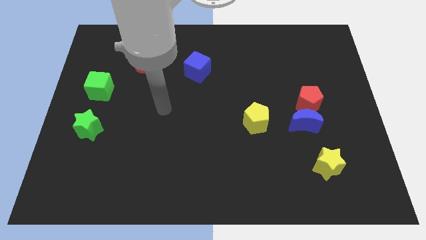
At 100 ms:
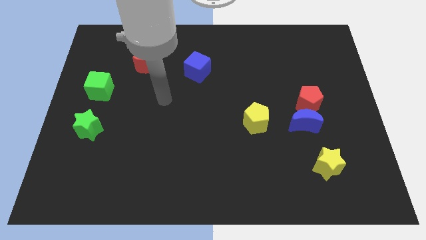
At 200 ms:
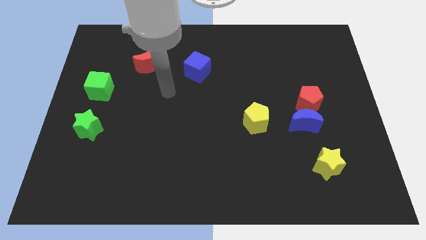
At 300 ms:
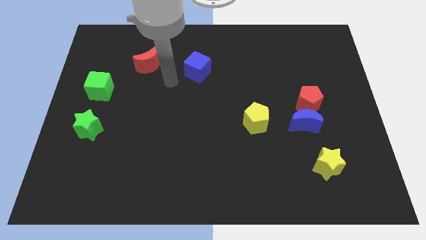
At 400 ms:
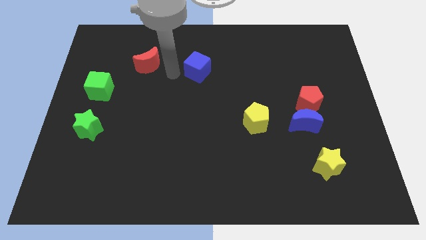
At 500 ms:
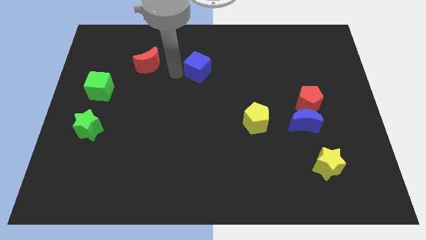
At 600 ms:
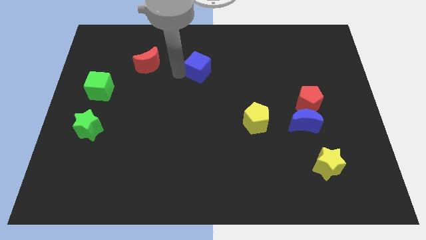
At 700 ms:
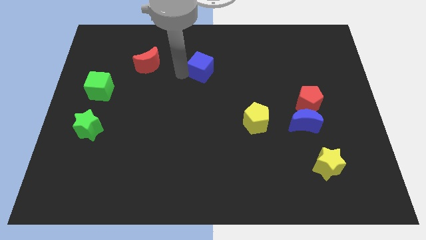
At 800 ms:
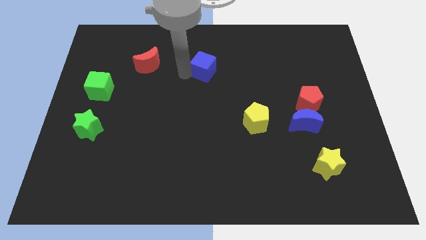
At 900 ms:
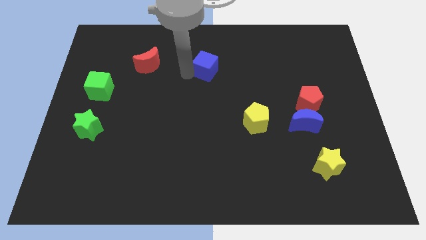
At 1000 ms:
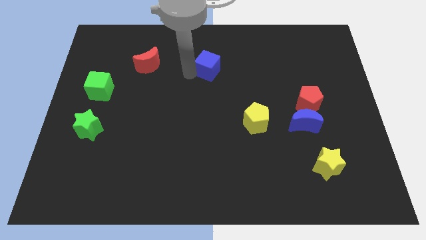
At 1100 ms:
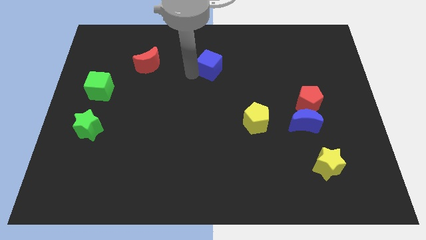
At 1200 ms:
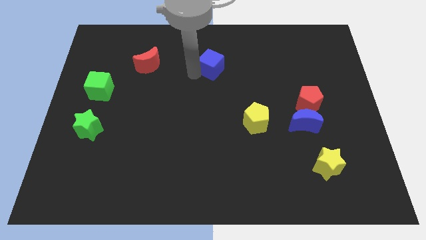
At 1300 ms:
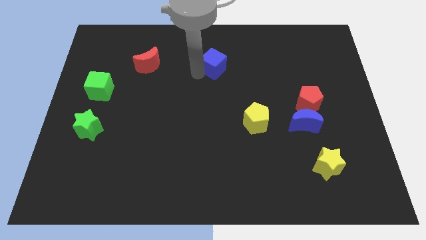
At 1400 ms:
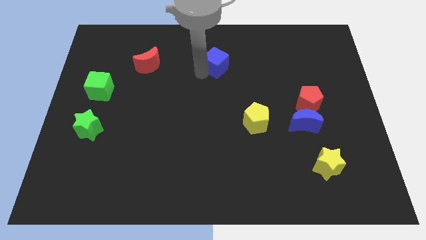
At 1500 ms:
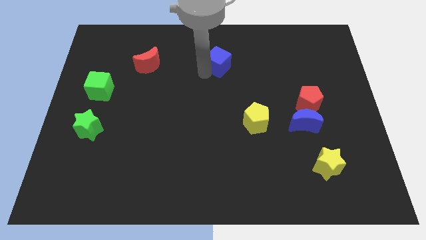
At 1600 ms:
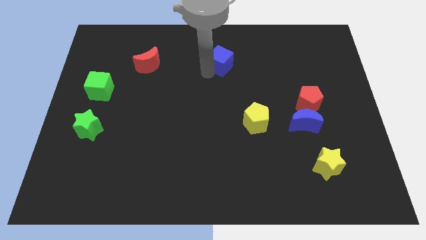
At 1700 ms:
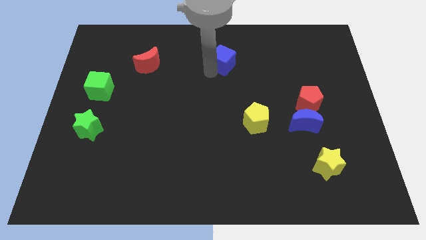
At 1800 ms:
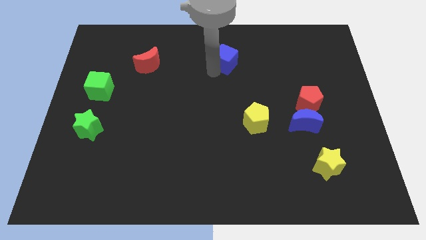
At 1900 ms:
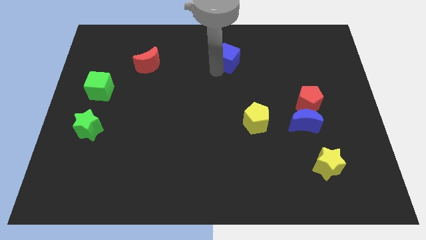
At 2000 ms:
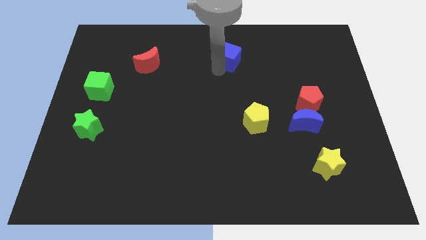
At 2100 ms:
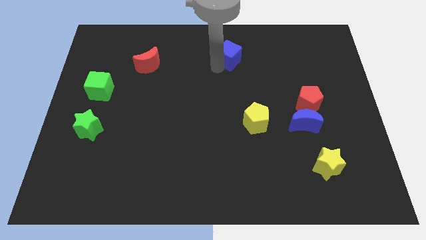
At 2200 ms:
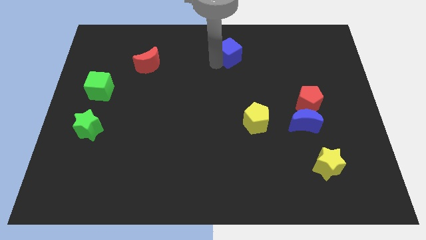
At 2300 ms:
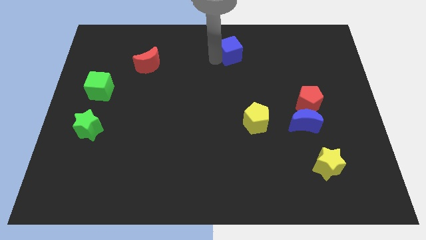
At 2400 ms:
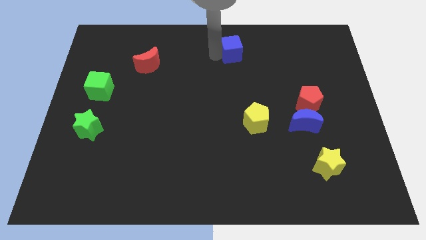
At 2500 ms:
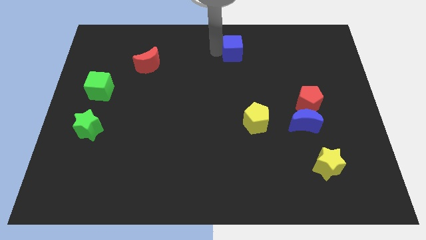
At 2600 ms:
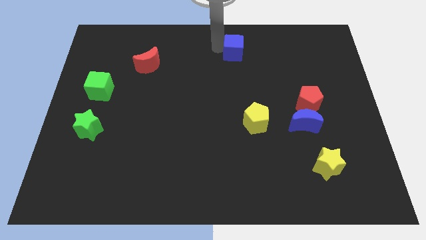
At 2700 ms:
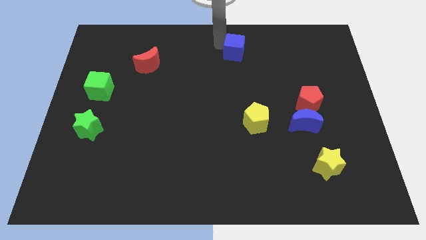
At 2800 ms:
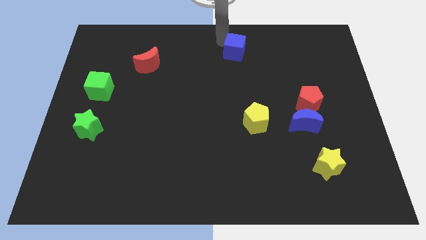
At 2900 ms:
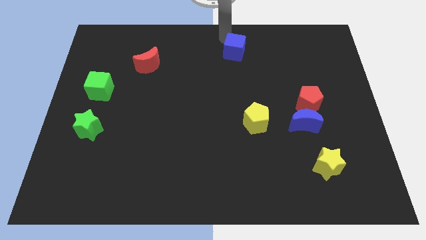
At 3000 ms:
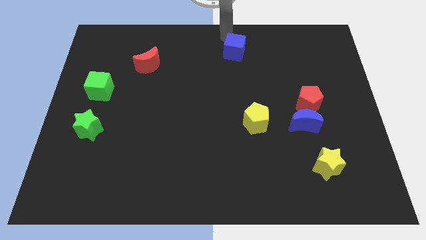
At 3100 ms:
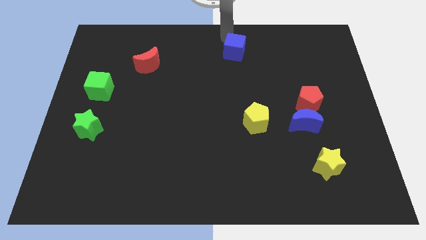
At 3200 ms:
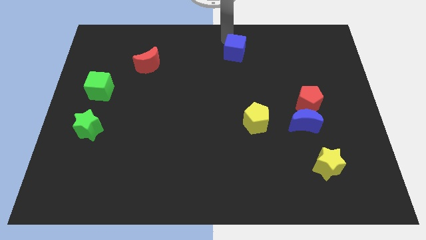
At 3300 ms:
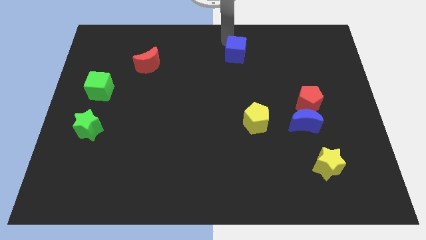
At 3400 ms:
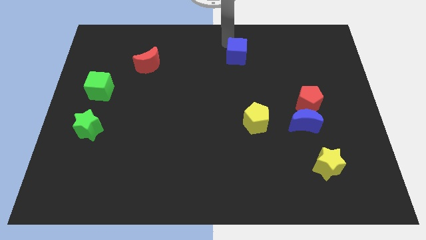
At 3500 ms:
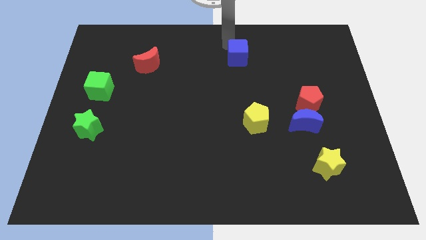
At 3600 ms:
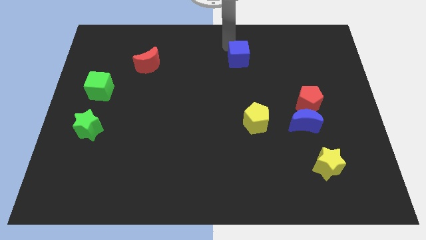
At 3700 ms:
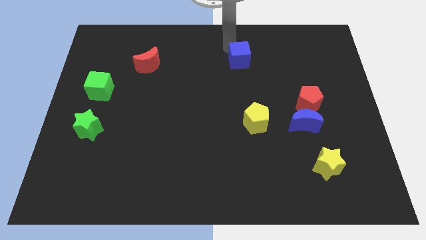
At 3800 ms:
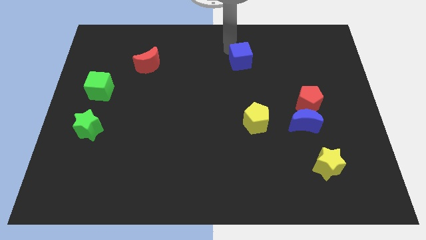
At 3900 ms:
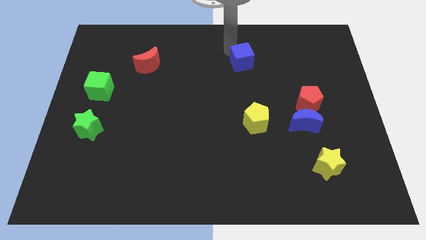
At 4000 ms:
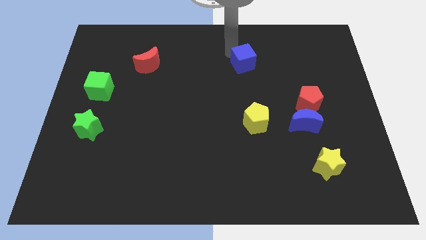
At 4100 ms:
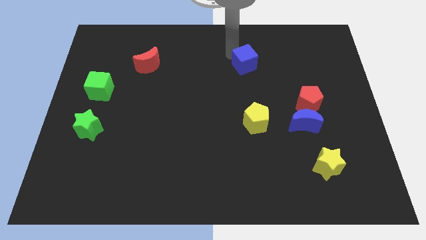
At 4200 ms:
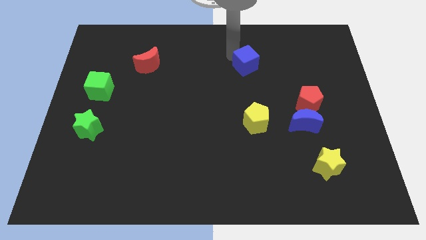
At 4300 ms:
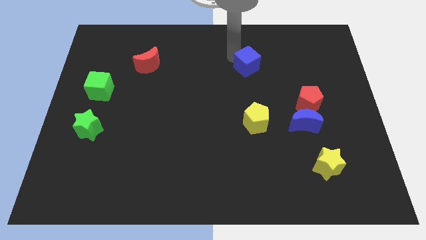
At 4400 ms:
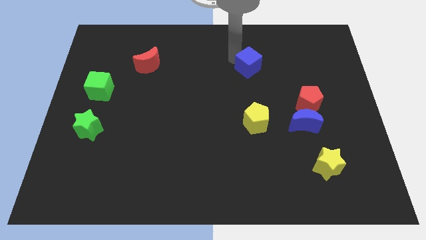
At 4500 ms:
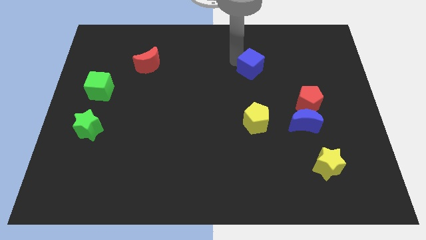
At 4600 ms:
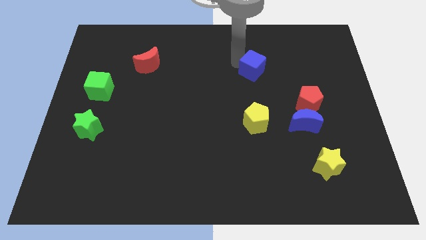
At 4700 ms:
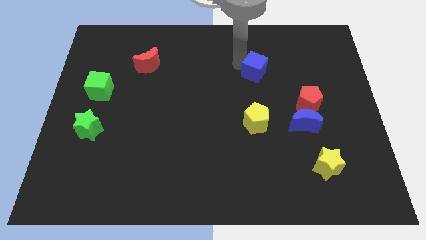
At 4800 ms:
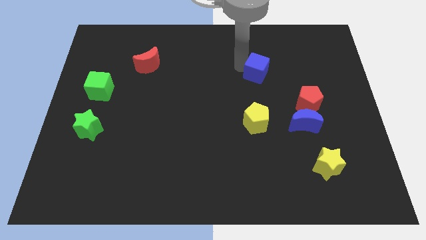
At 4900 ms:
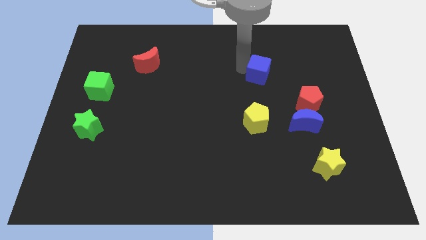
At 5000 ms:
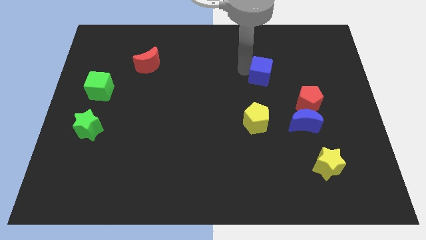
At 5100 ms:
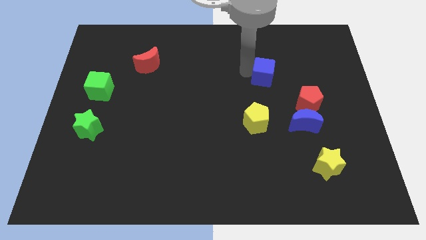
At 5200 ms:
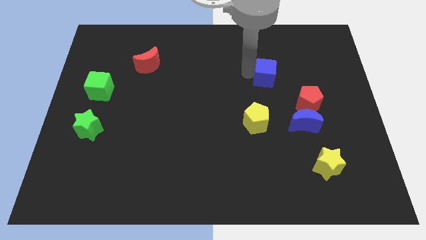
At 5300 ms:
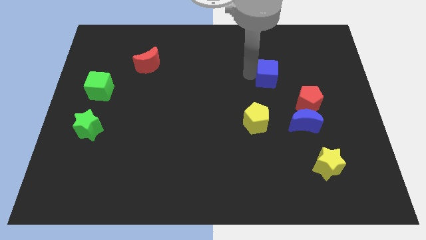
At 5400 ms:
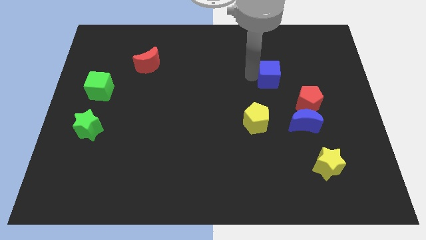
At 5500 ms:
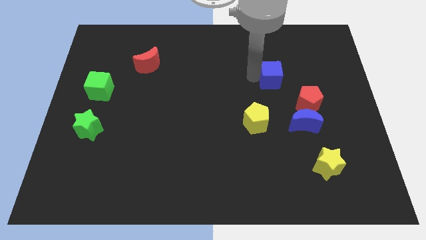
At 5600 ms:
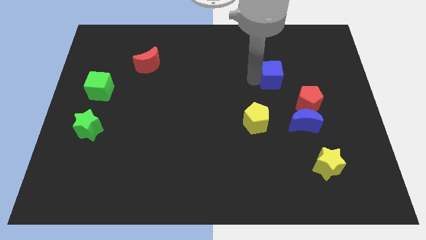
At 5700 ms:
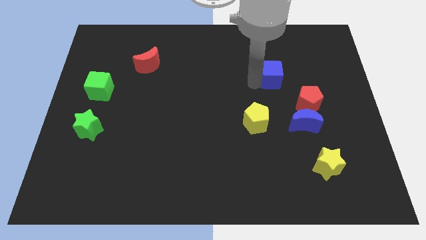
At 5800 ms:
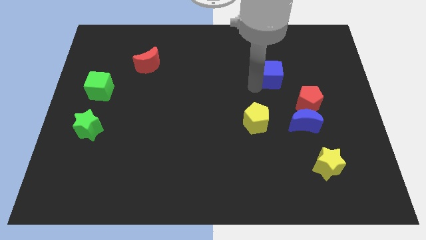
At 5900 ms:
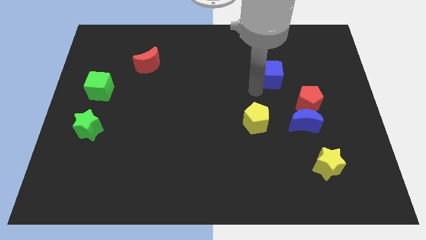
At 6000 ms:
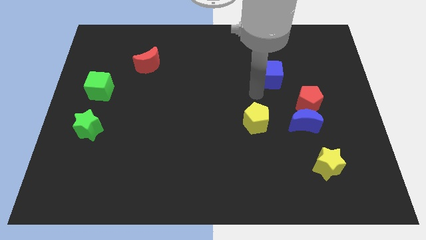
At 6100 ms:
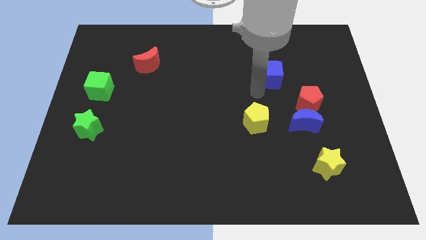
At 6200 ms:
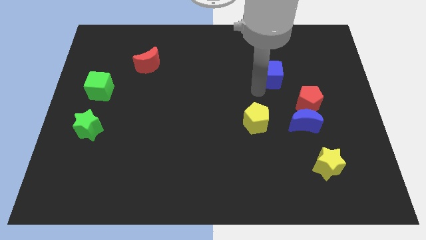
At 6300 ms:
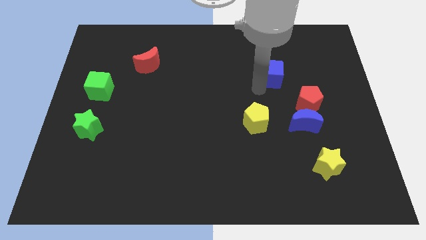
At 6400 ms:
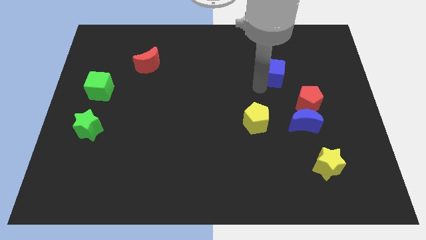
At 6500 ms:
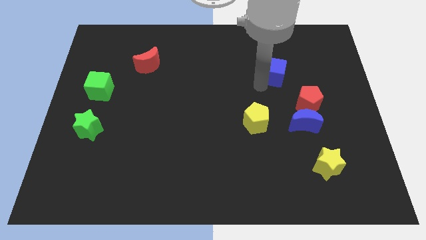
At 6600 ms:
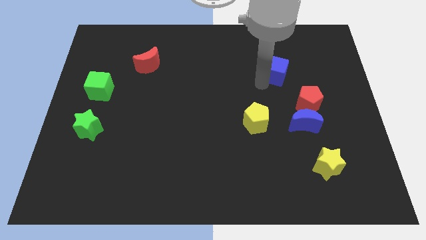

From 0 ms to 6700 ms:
push the blue cube to the right

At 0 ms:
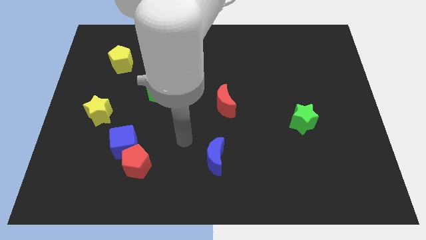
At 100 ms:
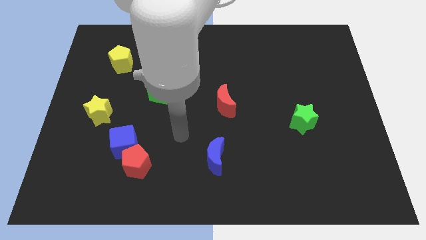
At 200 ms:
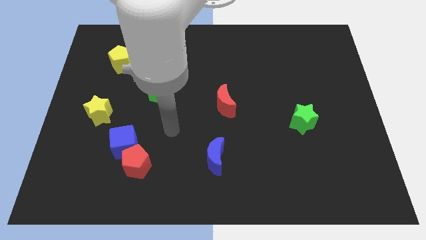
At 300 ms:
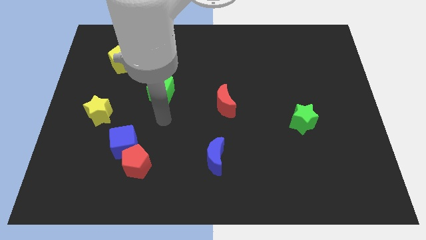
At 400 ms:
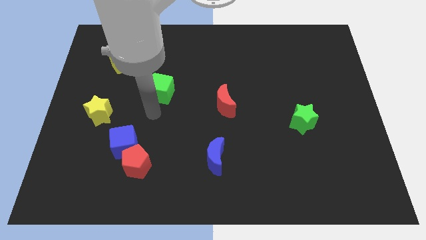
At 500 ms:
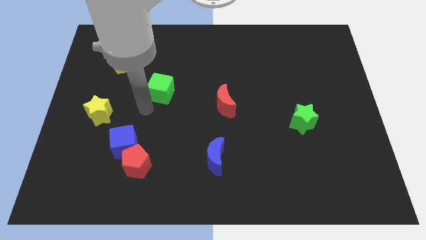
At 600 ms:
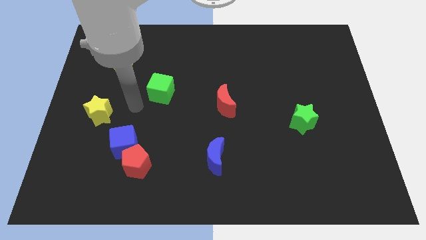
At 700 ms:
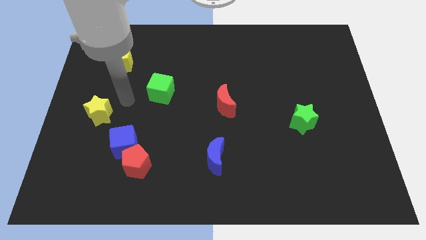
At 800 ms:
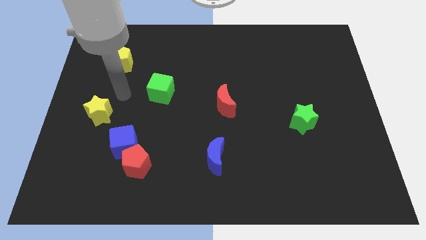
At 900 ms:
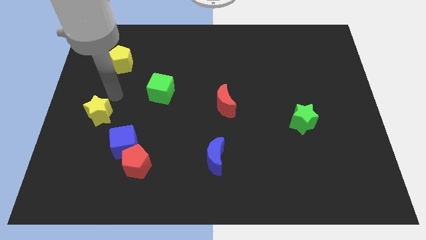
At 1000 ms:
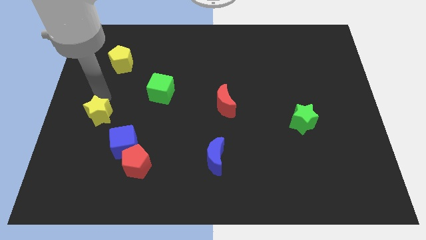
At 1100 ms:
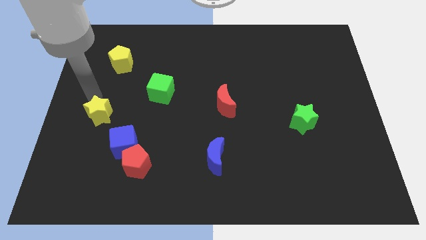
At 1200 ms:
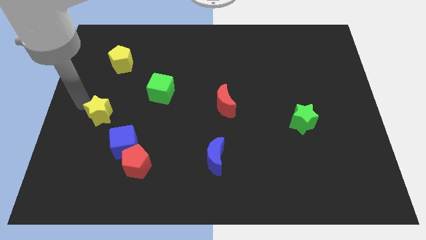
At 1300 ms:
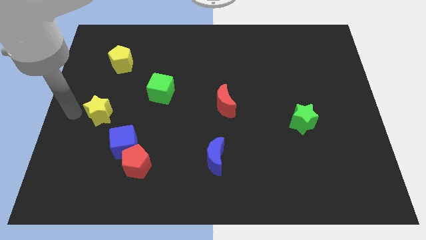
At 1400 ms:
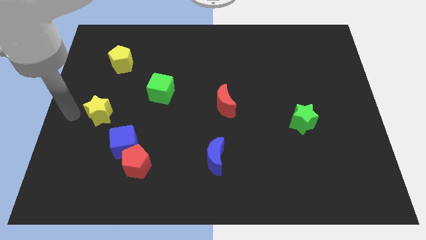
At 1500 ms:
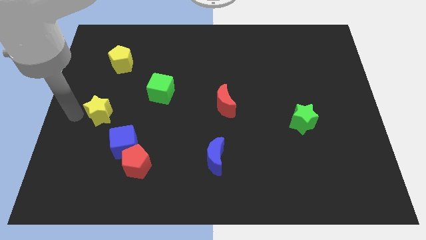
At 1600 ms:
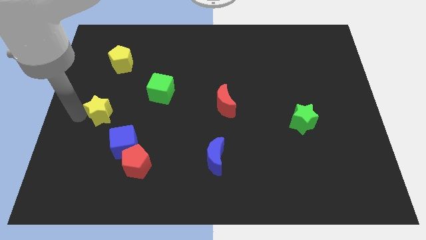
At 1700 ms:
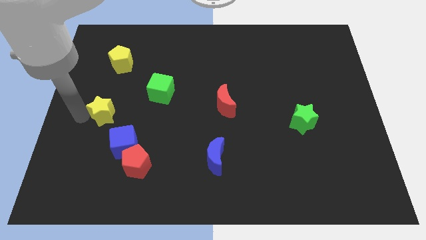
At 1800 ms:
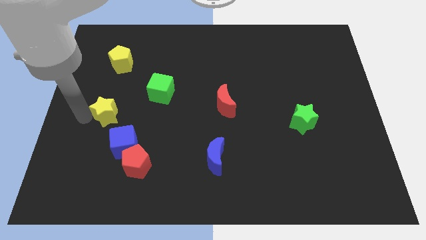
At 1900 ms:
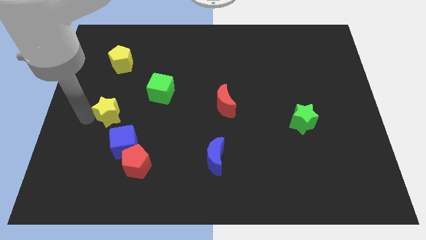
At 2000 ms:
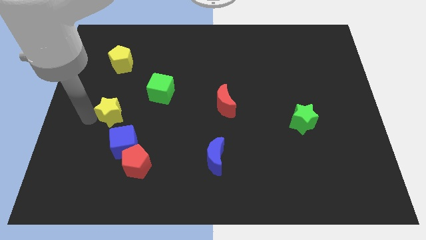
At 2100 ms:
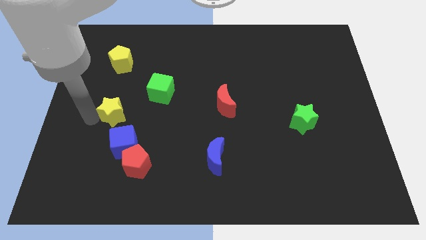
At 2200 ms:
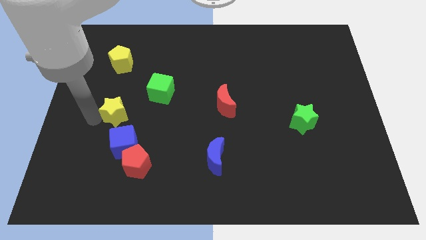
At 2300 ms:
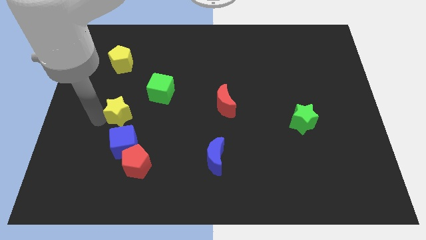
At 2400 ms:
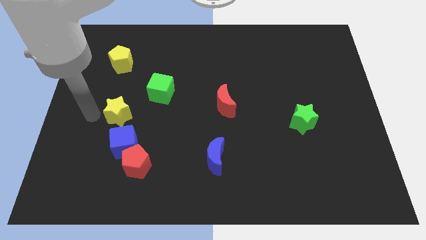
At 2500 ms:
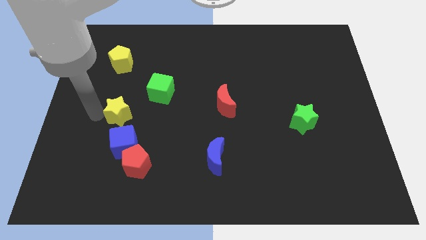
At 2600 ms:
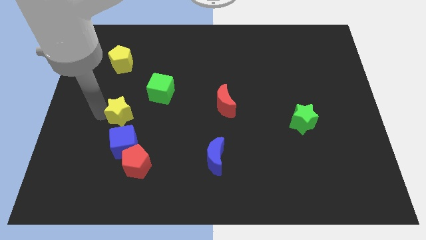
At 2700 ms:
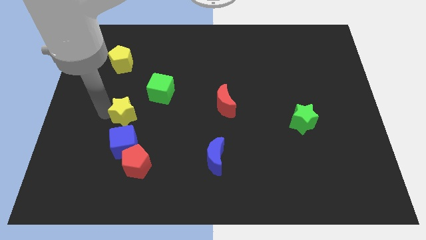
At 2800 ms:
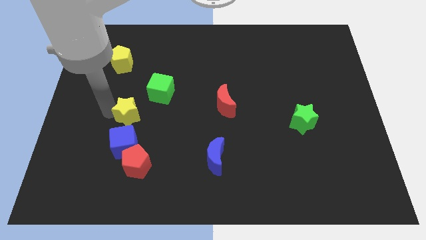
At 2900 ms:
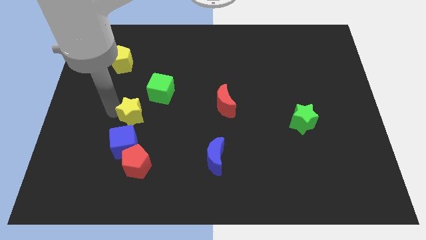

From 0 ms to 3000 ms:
slide the yellow star somewhat to the right
